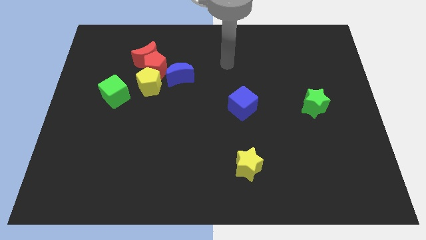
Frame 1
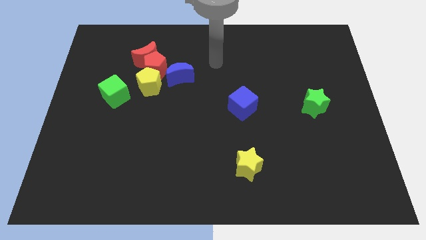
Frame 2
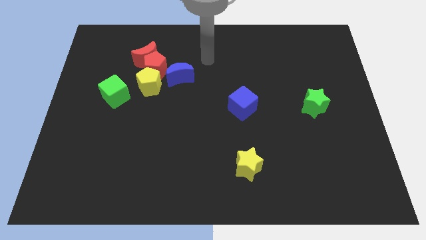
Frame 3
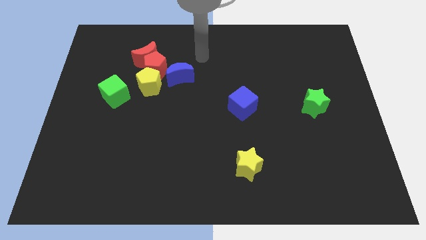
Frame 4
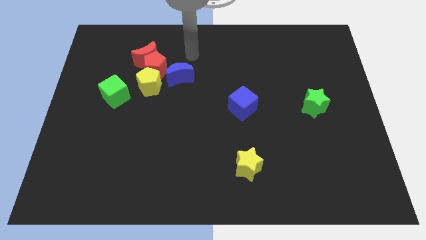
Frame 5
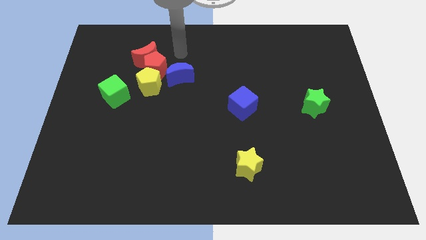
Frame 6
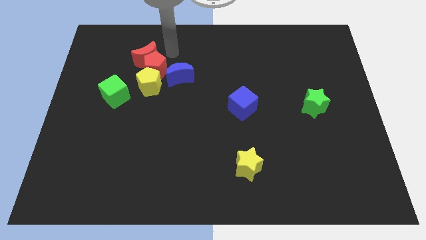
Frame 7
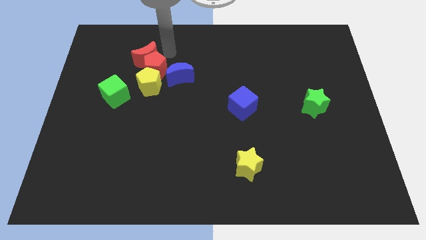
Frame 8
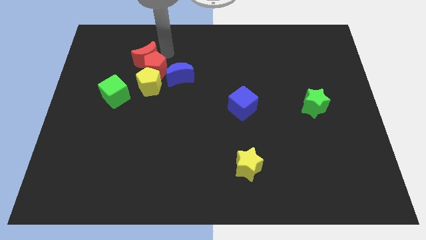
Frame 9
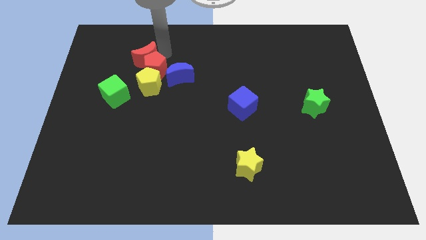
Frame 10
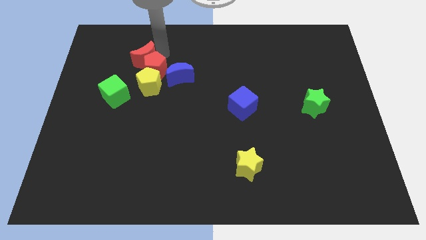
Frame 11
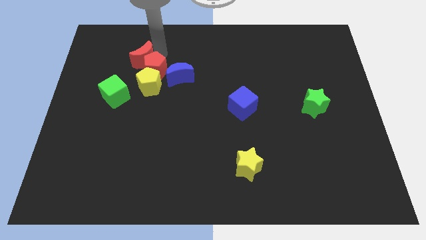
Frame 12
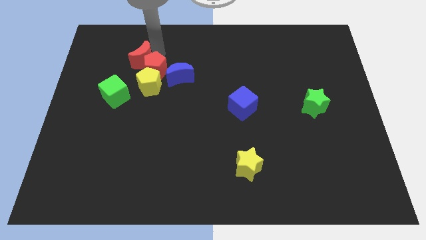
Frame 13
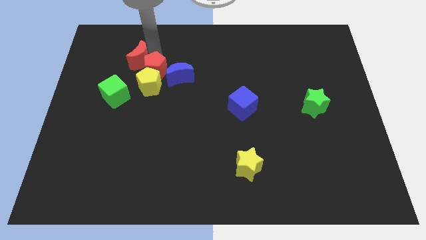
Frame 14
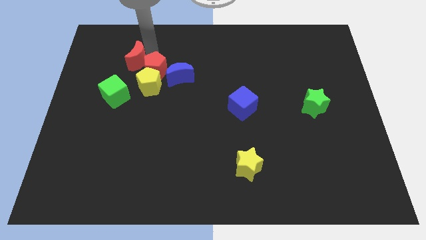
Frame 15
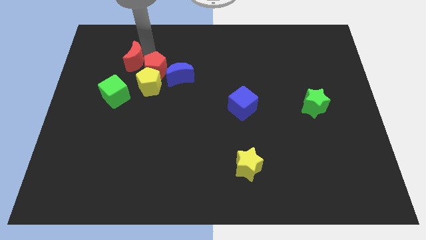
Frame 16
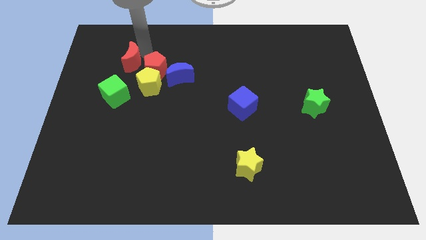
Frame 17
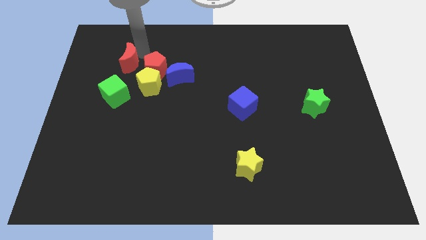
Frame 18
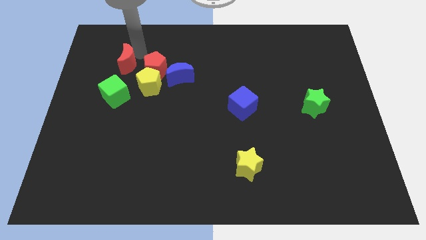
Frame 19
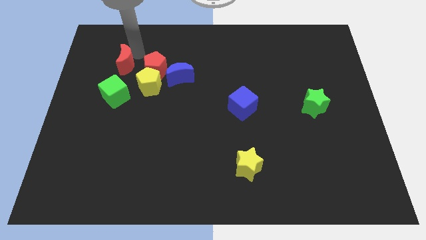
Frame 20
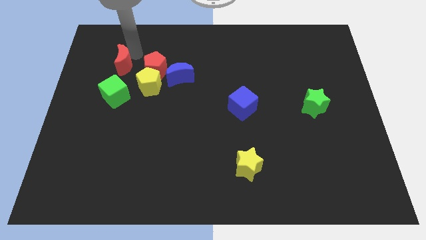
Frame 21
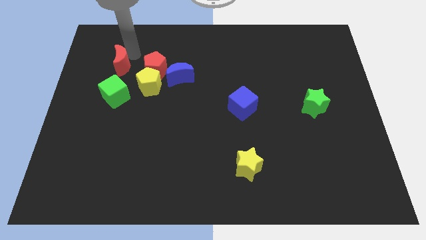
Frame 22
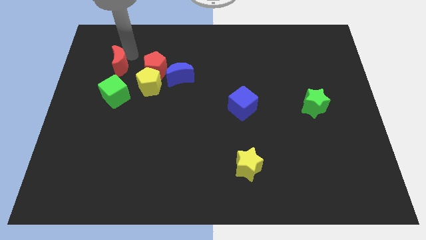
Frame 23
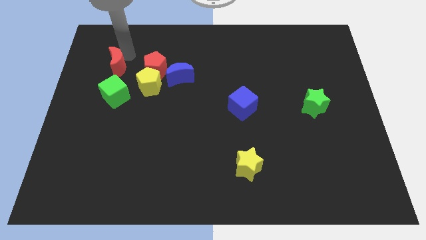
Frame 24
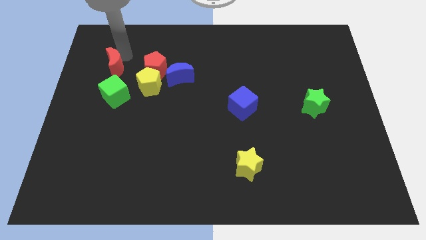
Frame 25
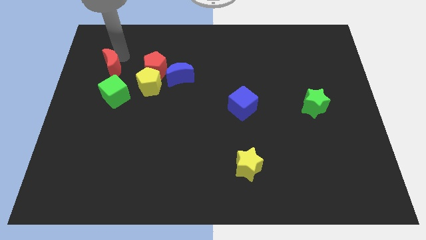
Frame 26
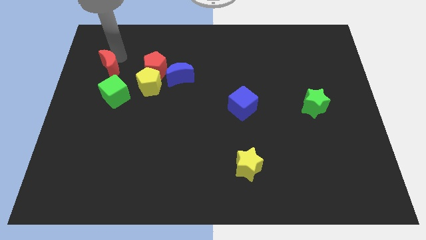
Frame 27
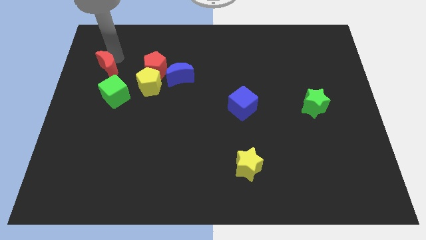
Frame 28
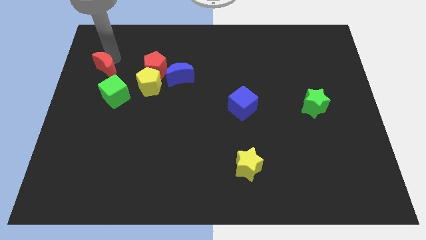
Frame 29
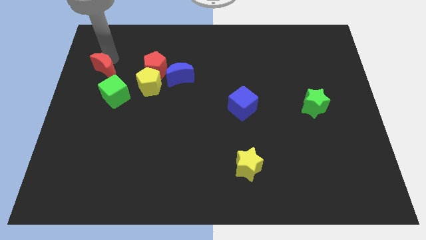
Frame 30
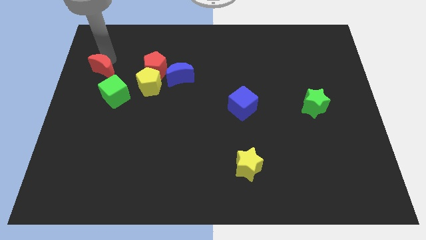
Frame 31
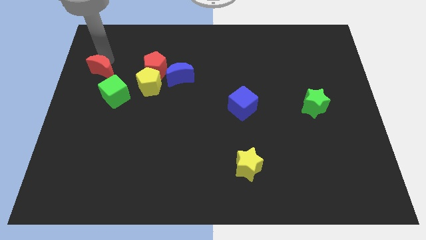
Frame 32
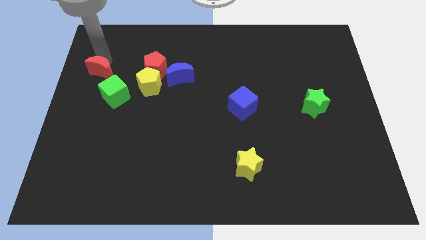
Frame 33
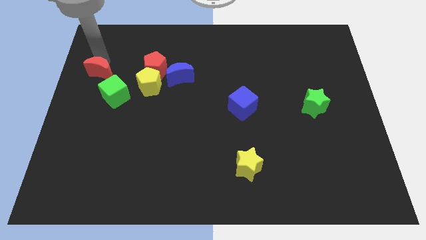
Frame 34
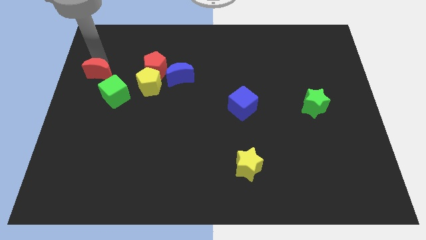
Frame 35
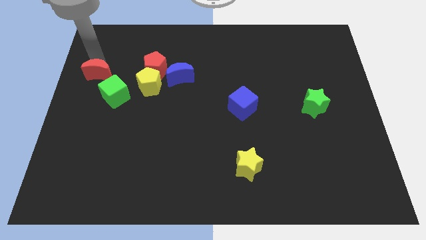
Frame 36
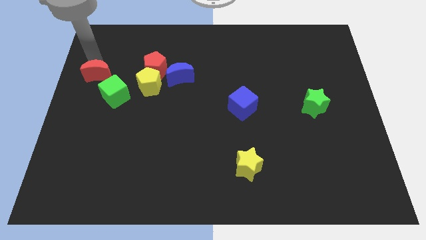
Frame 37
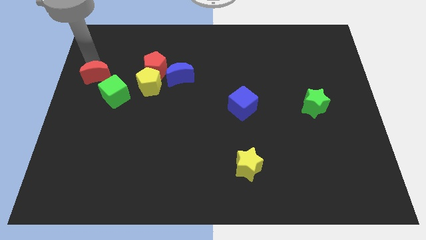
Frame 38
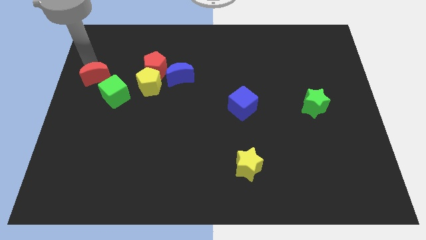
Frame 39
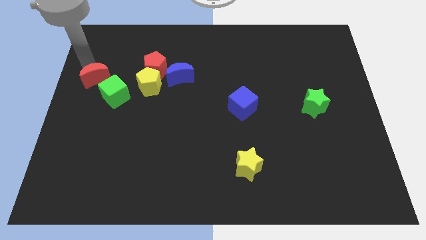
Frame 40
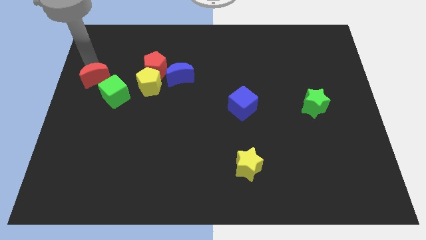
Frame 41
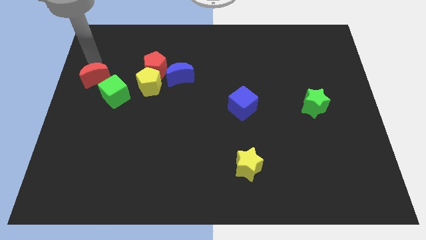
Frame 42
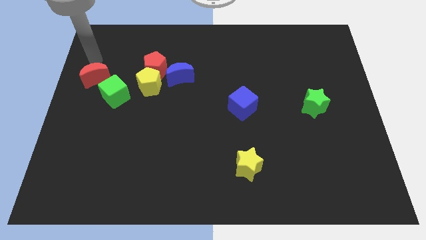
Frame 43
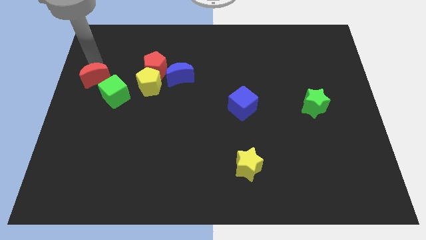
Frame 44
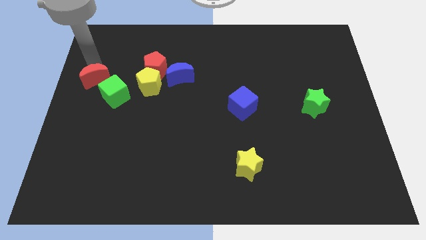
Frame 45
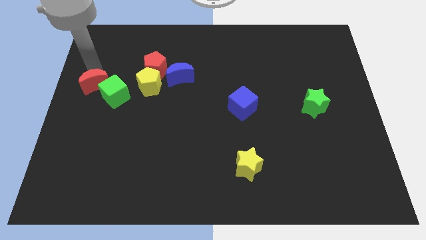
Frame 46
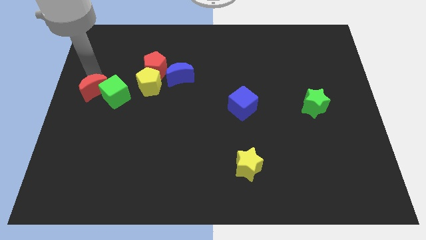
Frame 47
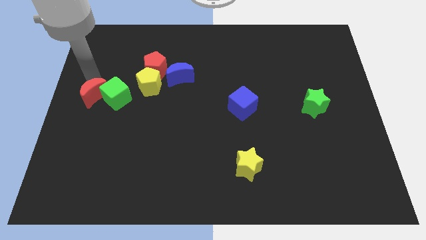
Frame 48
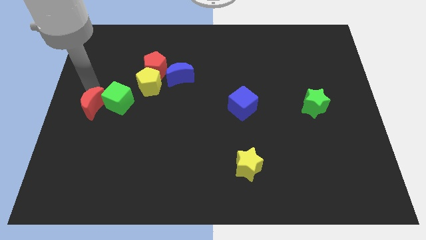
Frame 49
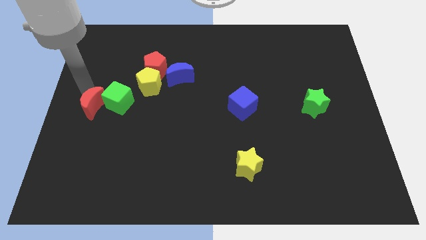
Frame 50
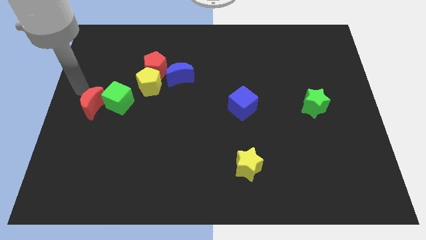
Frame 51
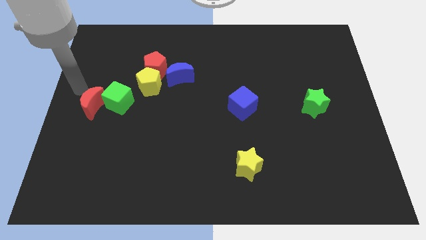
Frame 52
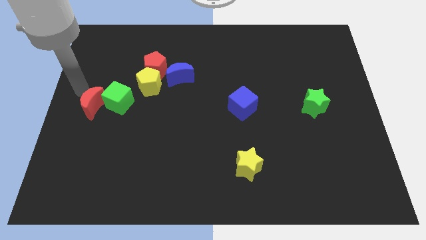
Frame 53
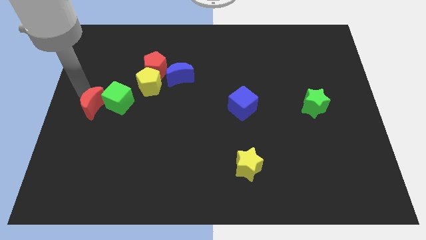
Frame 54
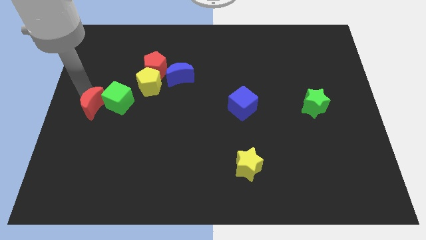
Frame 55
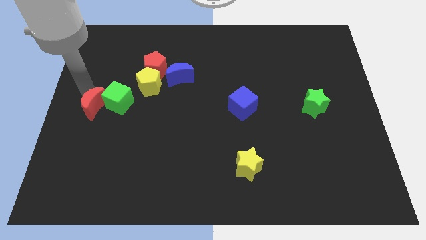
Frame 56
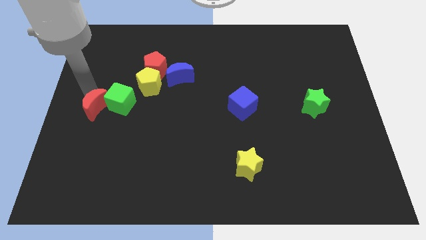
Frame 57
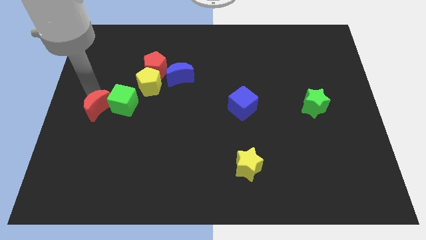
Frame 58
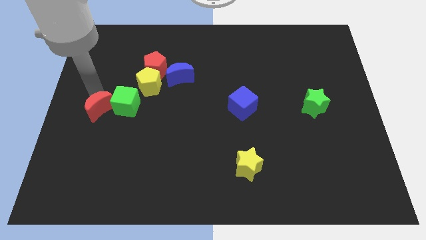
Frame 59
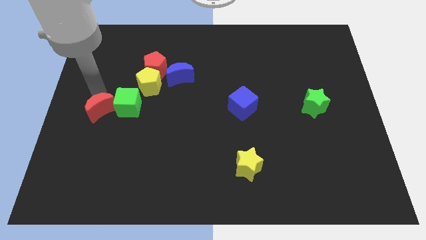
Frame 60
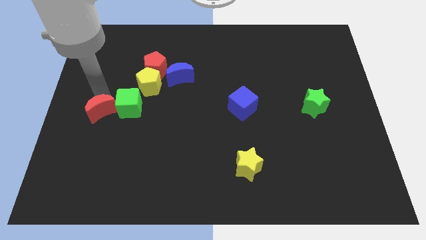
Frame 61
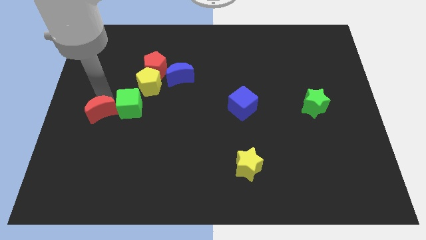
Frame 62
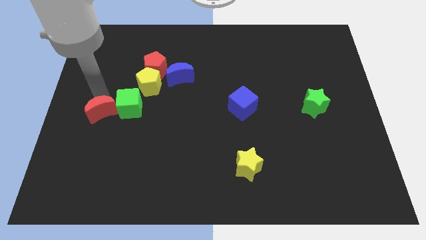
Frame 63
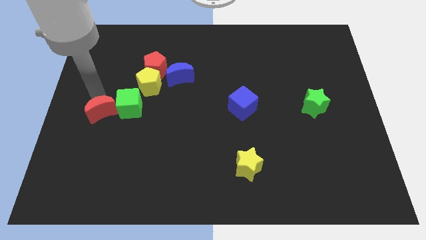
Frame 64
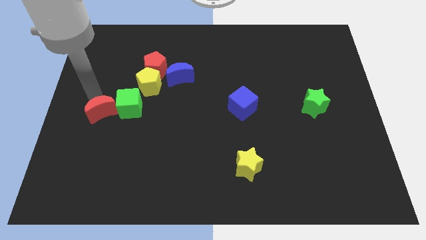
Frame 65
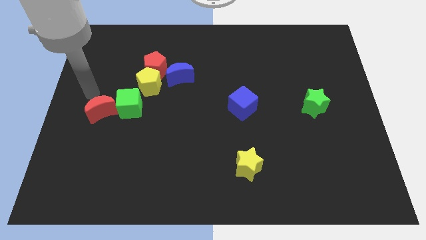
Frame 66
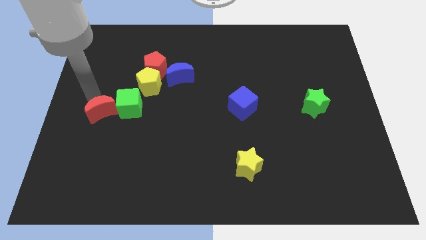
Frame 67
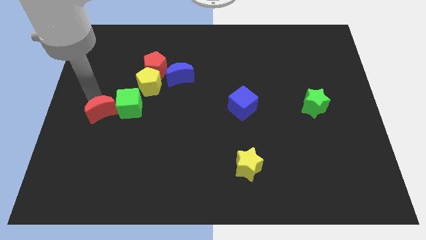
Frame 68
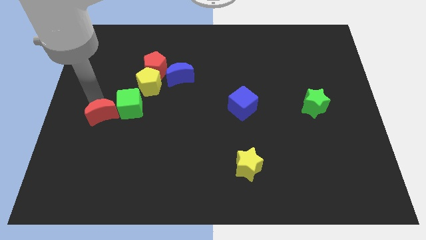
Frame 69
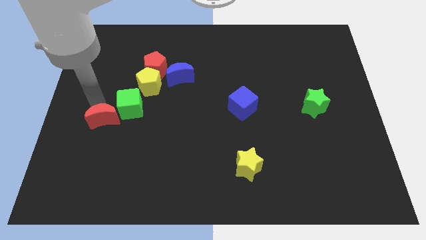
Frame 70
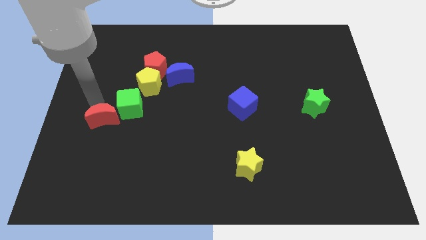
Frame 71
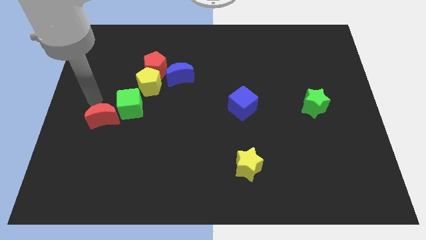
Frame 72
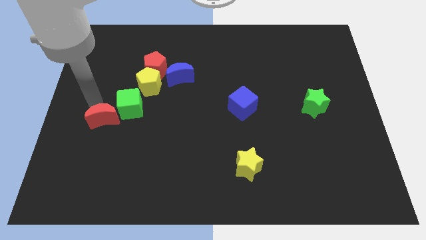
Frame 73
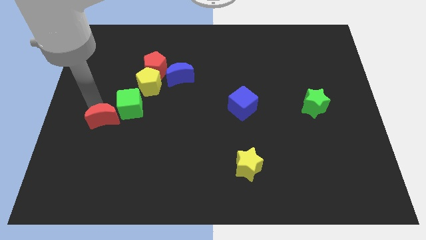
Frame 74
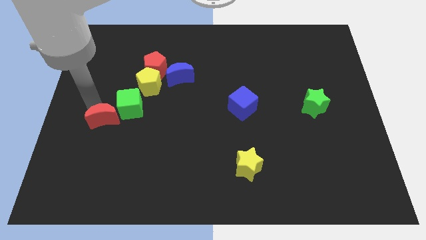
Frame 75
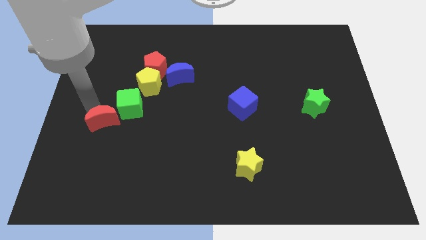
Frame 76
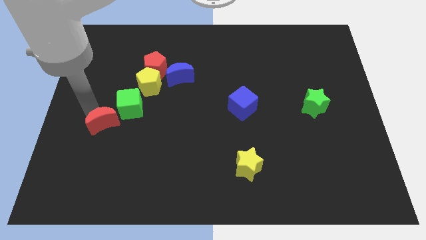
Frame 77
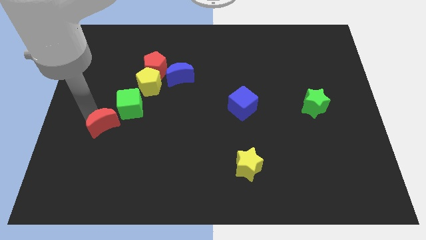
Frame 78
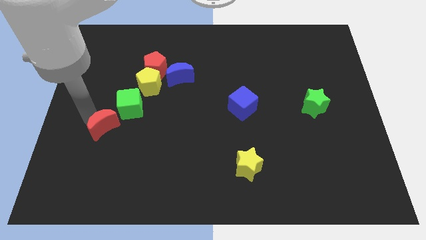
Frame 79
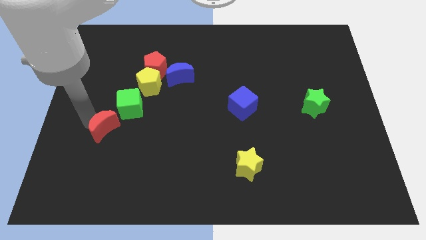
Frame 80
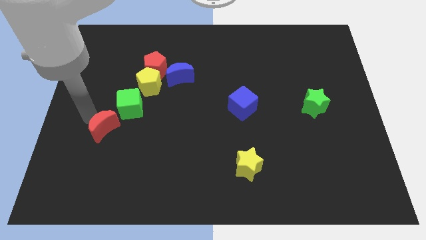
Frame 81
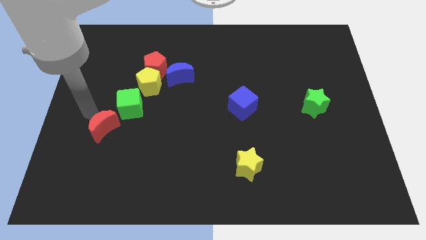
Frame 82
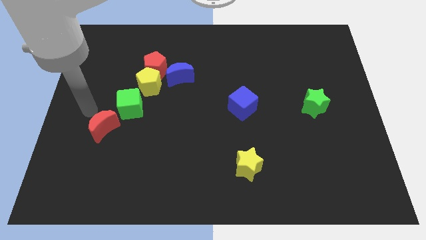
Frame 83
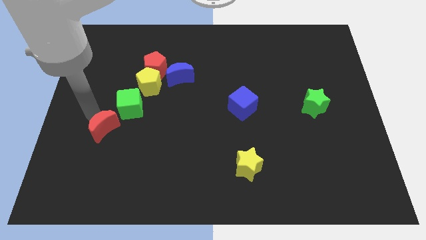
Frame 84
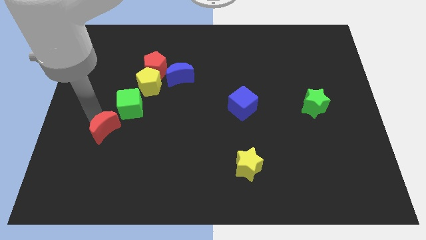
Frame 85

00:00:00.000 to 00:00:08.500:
slide the red moon downwards
